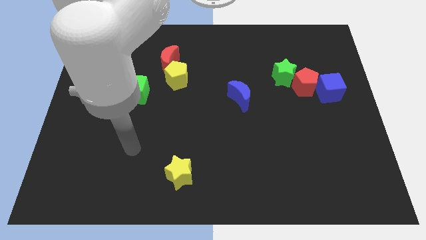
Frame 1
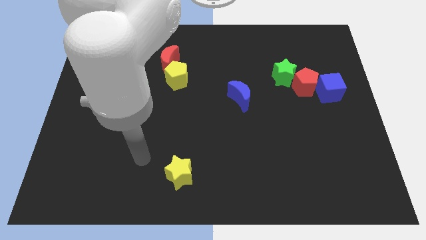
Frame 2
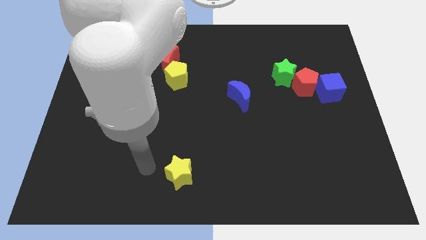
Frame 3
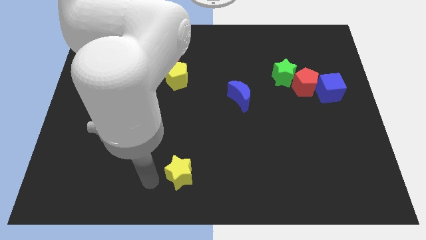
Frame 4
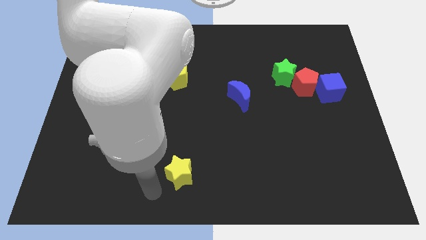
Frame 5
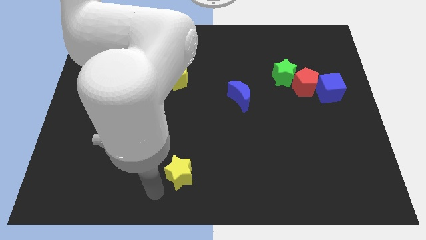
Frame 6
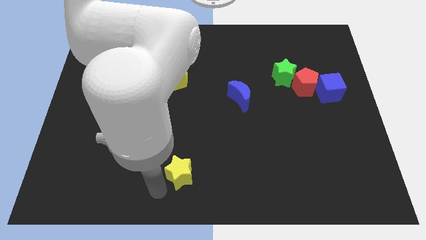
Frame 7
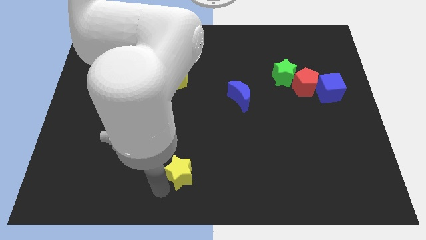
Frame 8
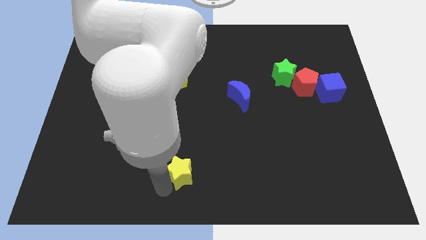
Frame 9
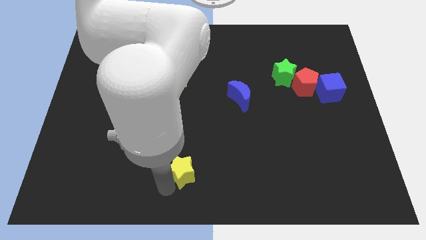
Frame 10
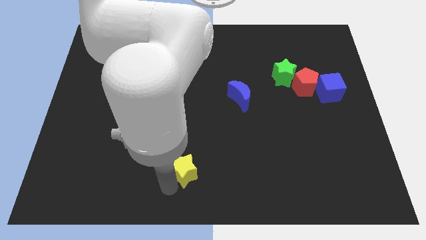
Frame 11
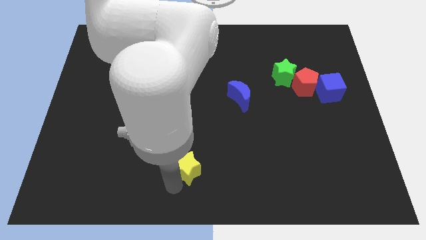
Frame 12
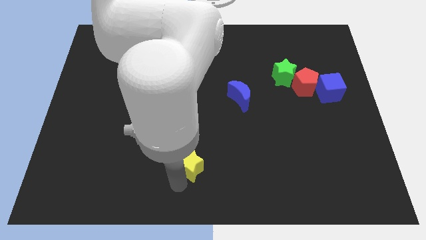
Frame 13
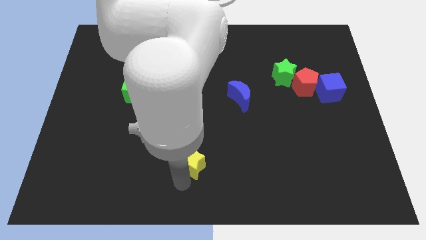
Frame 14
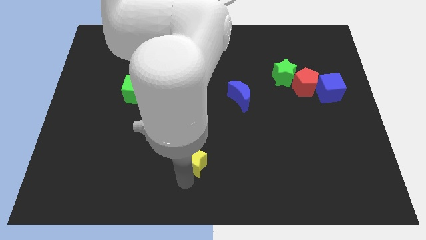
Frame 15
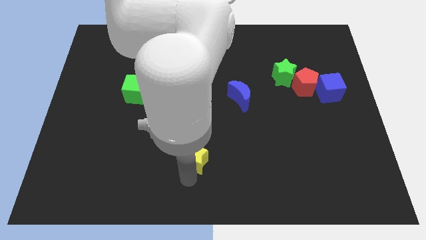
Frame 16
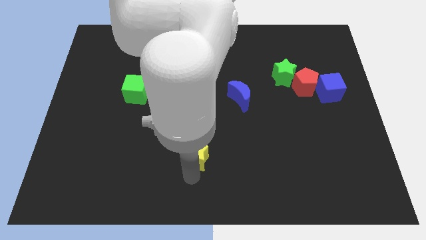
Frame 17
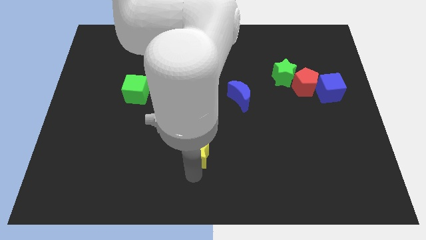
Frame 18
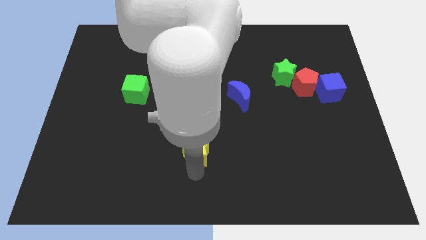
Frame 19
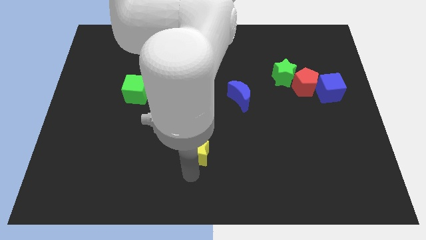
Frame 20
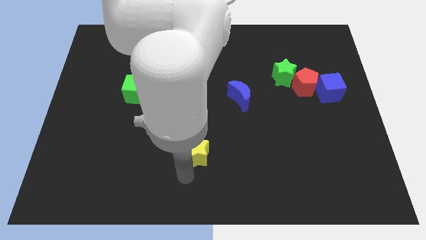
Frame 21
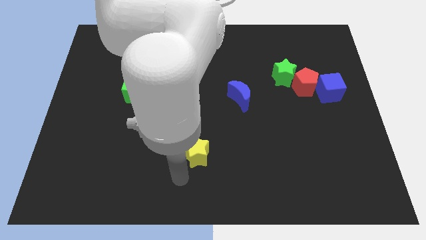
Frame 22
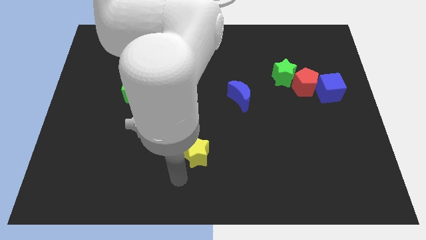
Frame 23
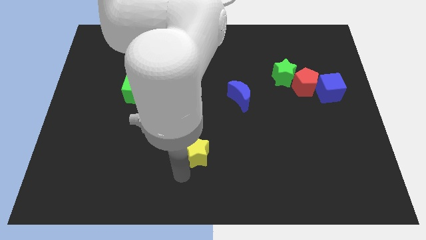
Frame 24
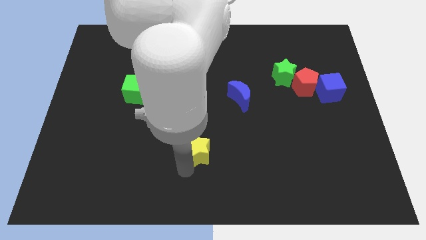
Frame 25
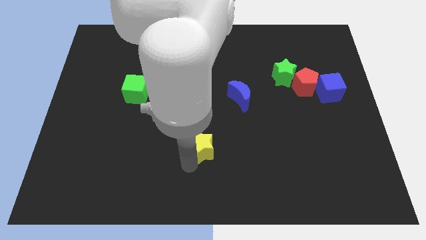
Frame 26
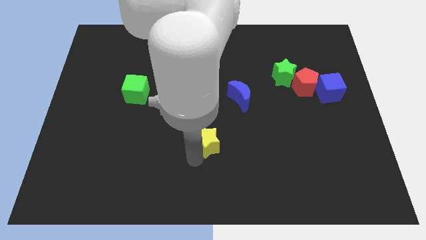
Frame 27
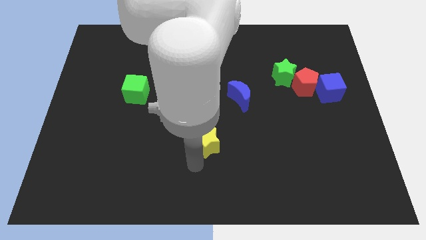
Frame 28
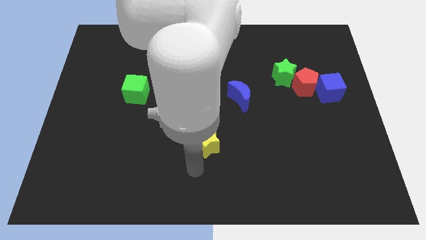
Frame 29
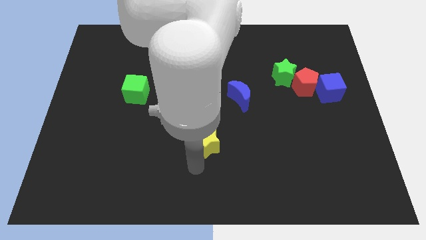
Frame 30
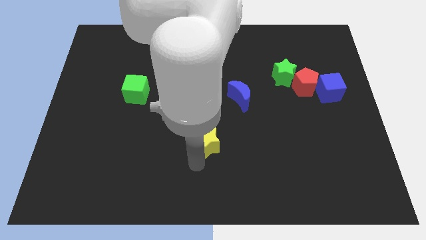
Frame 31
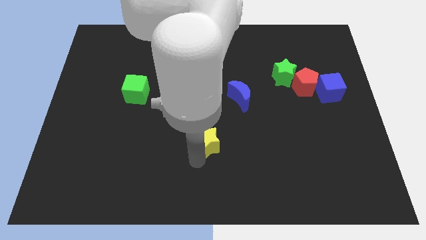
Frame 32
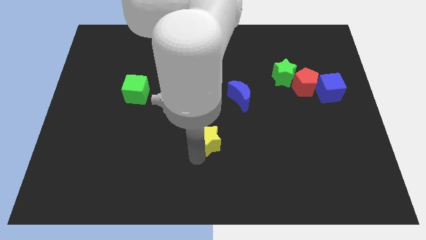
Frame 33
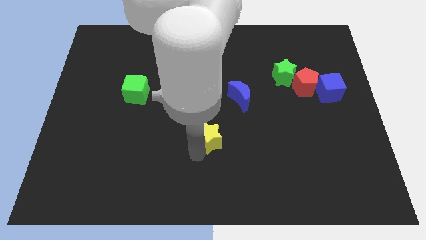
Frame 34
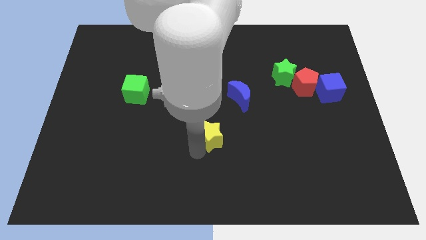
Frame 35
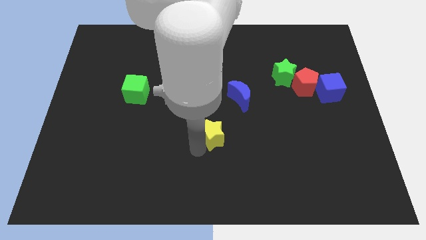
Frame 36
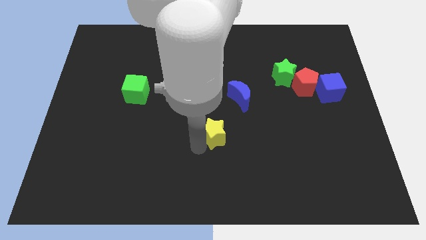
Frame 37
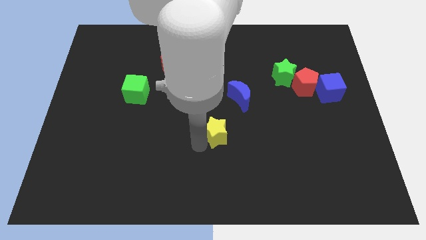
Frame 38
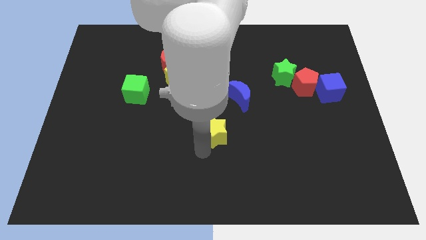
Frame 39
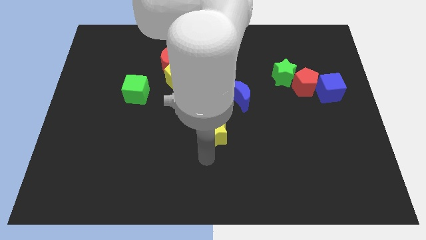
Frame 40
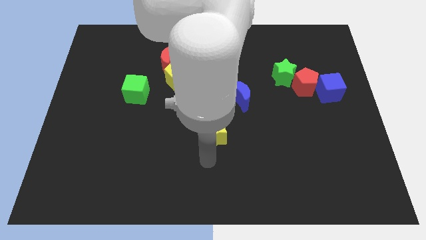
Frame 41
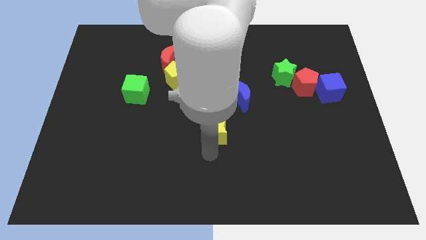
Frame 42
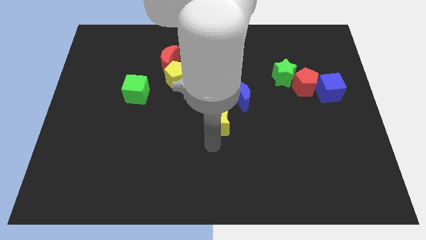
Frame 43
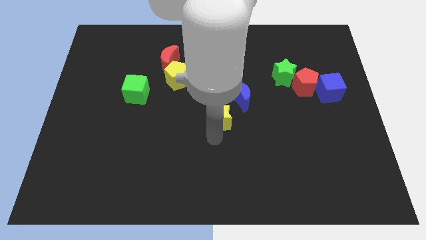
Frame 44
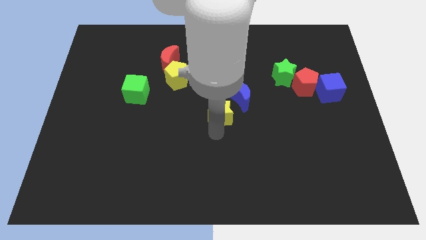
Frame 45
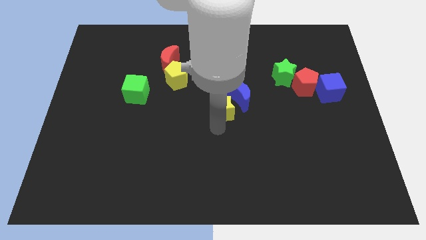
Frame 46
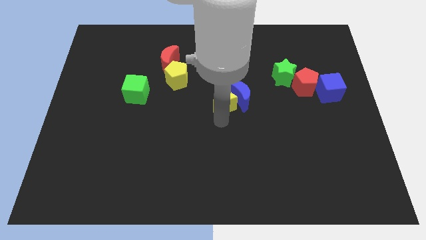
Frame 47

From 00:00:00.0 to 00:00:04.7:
slide the yellow star to the top left of the blue moon

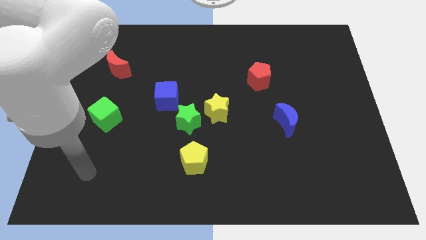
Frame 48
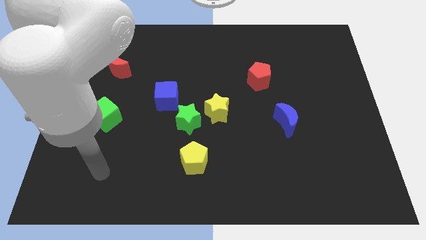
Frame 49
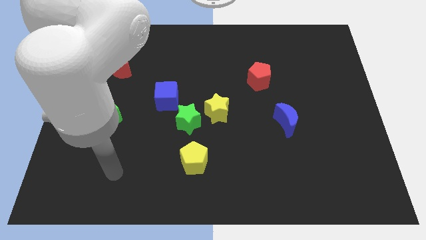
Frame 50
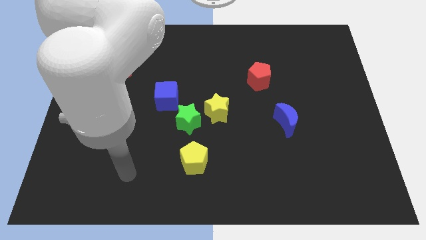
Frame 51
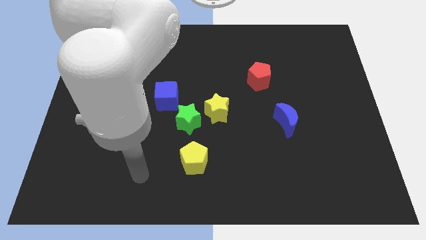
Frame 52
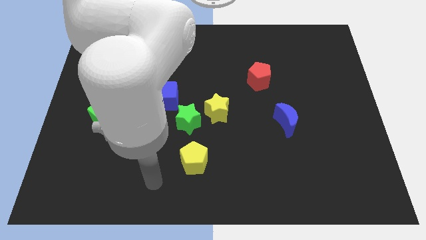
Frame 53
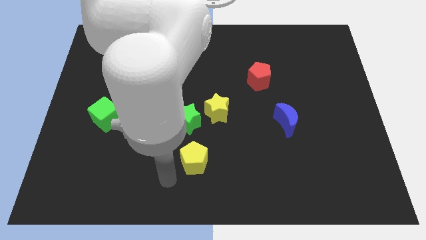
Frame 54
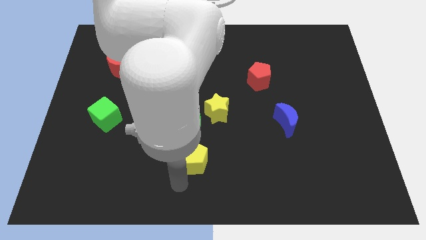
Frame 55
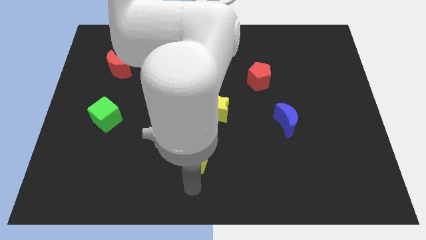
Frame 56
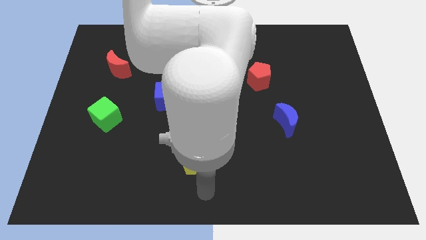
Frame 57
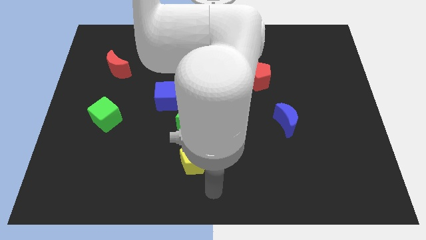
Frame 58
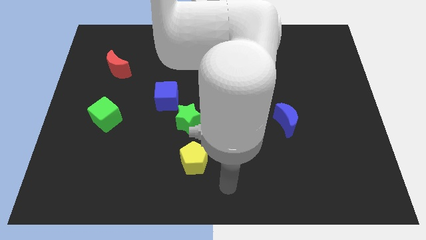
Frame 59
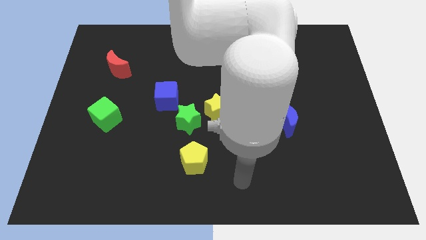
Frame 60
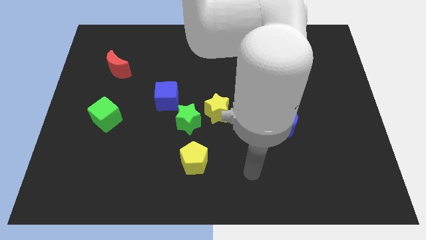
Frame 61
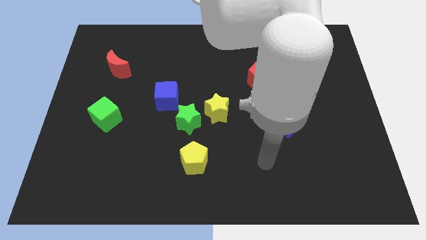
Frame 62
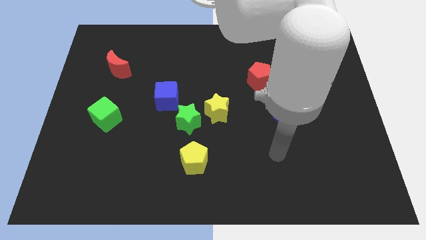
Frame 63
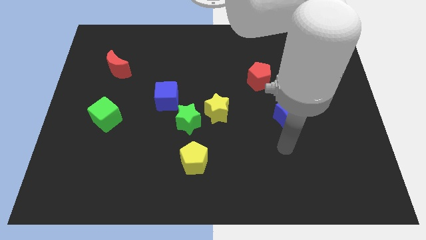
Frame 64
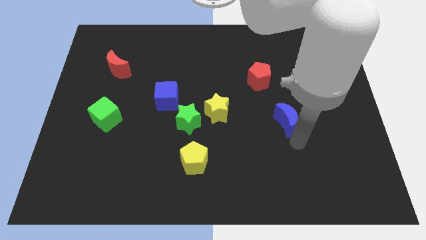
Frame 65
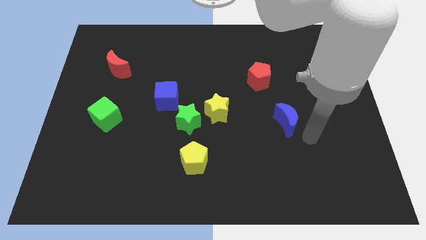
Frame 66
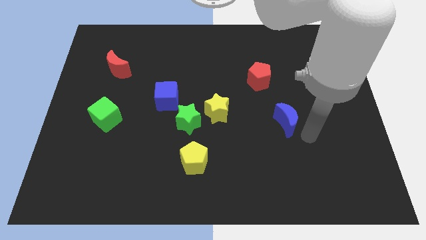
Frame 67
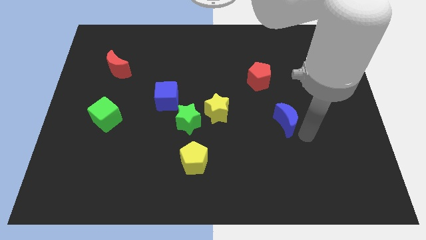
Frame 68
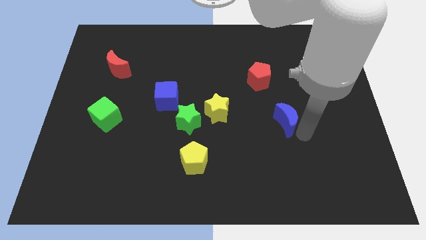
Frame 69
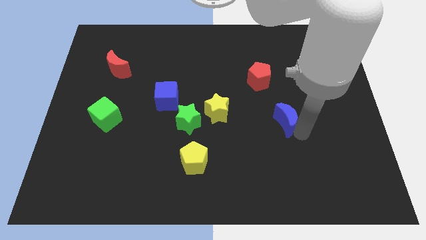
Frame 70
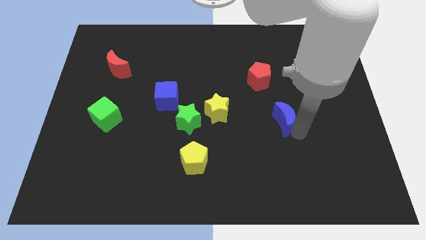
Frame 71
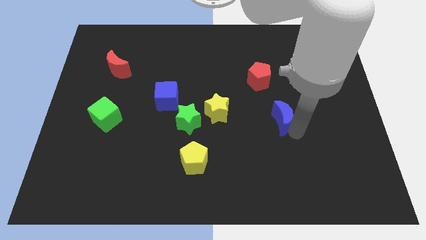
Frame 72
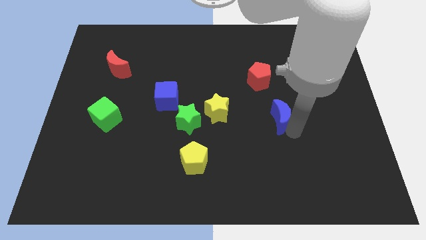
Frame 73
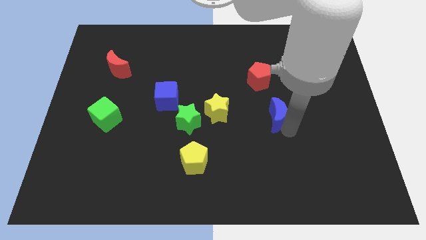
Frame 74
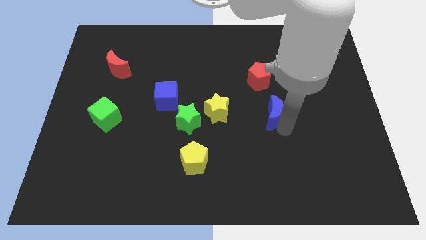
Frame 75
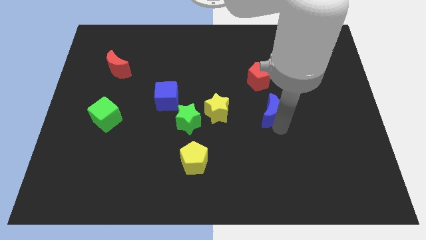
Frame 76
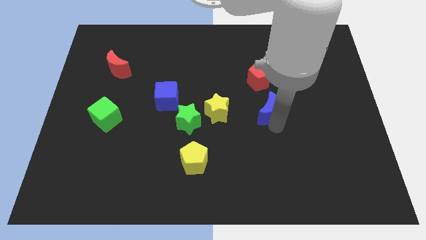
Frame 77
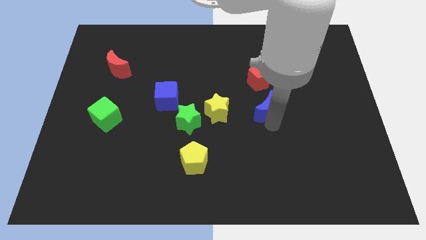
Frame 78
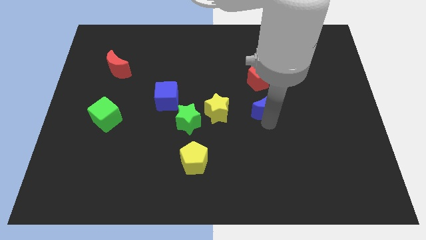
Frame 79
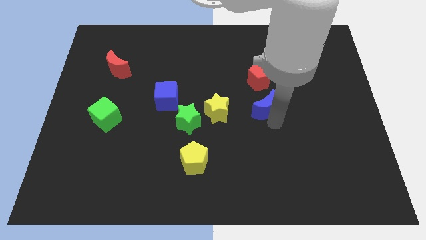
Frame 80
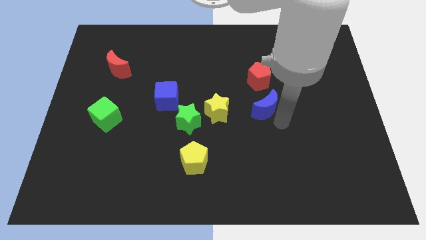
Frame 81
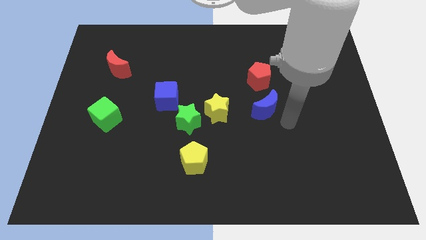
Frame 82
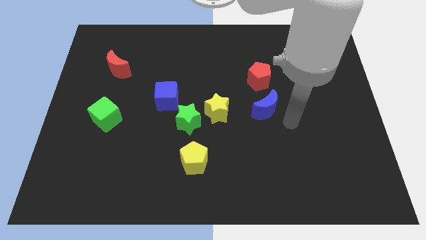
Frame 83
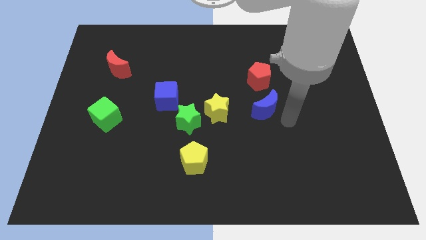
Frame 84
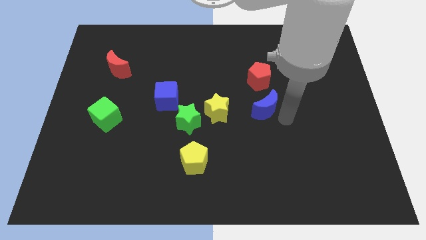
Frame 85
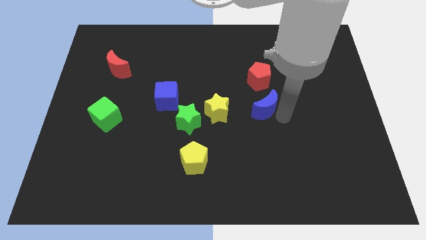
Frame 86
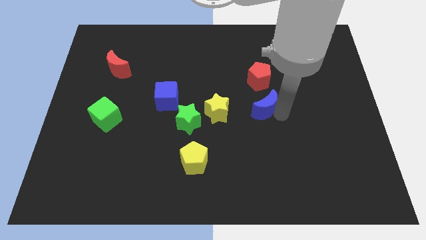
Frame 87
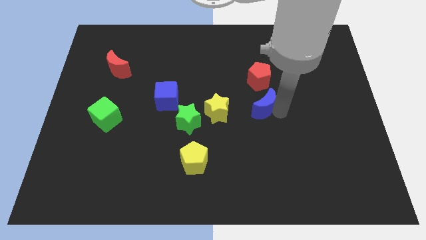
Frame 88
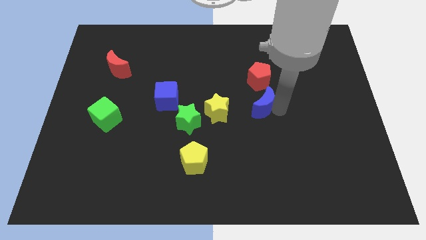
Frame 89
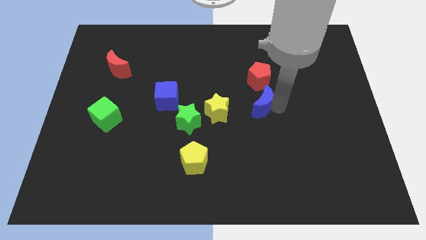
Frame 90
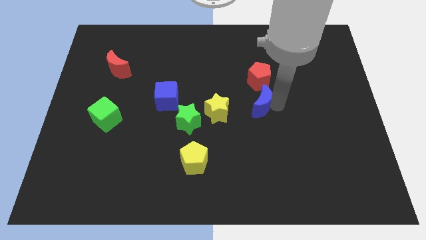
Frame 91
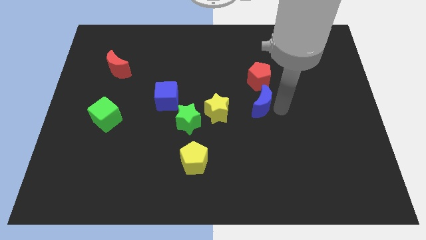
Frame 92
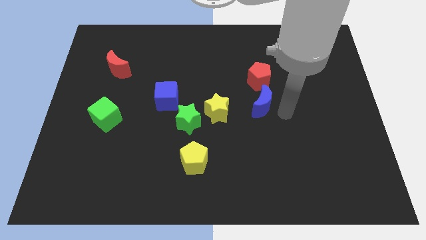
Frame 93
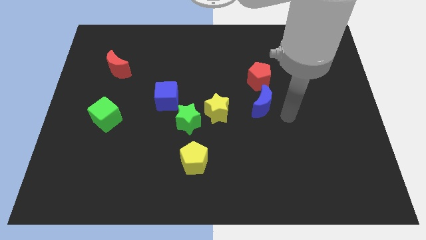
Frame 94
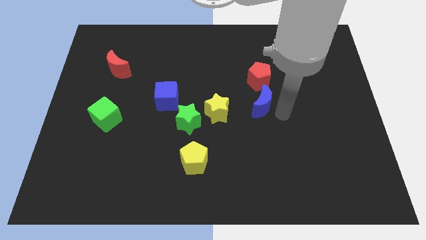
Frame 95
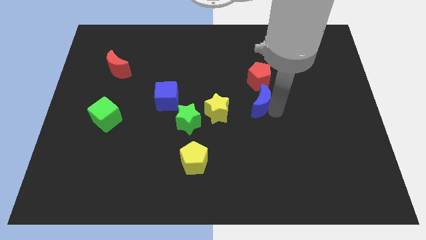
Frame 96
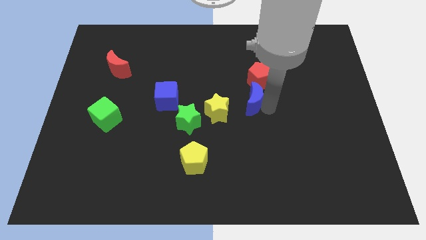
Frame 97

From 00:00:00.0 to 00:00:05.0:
put the blue moon to the top right side of the yellow star
